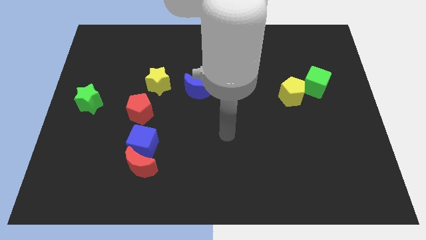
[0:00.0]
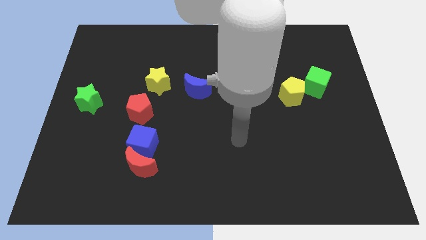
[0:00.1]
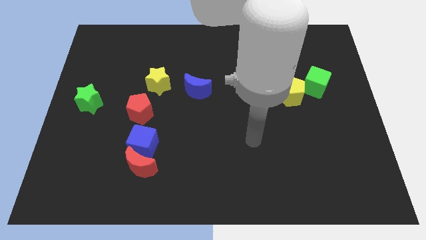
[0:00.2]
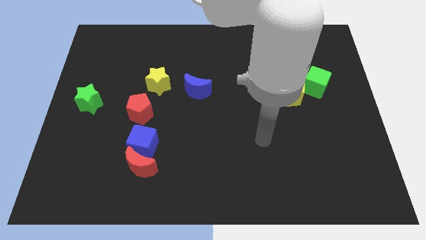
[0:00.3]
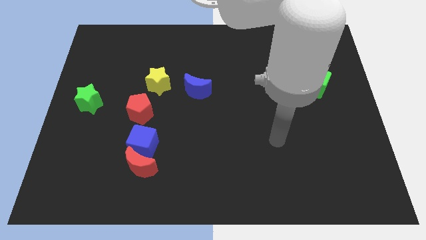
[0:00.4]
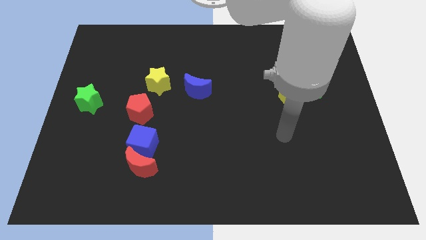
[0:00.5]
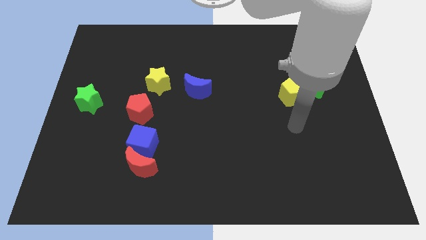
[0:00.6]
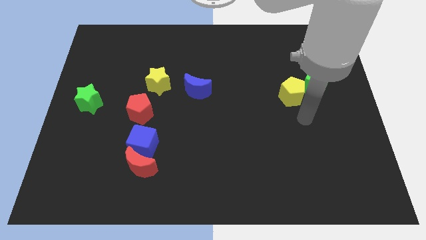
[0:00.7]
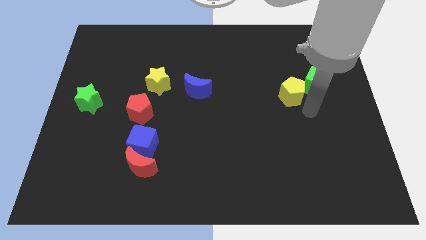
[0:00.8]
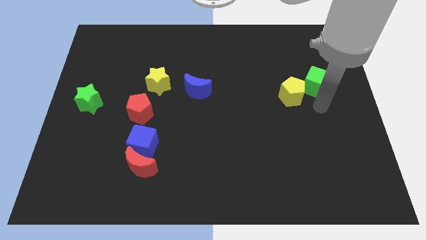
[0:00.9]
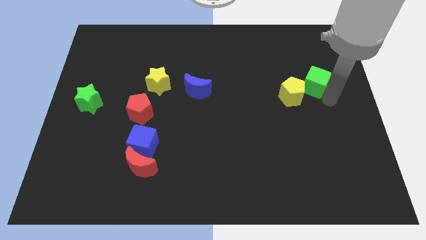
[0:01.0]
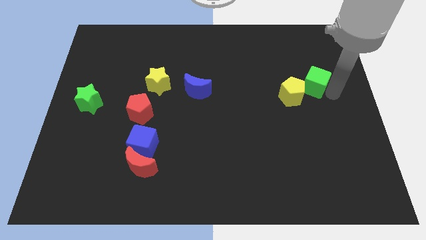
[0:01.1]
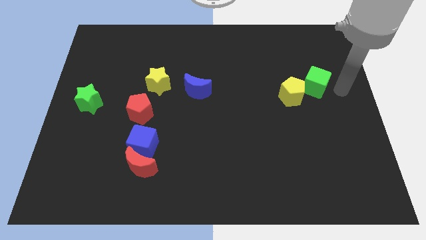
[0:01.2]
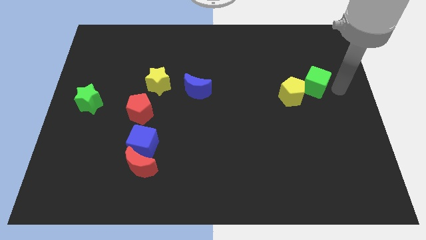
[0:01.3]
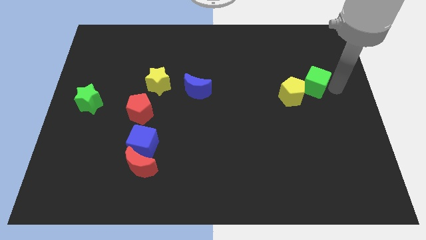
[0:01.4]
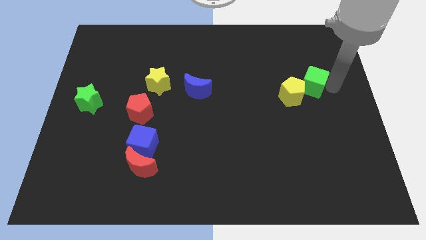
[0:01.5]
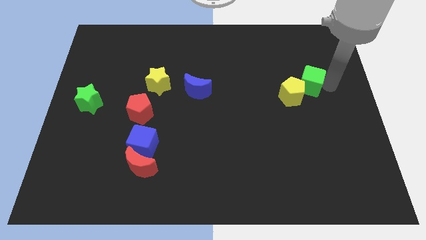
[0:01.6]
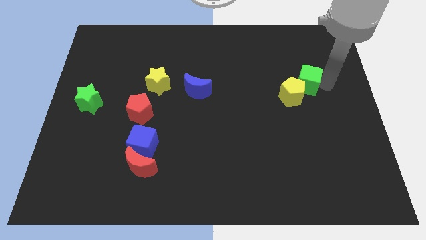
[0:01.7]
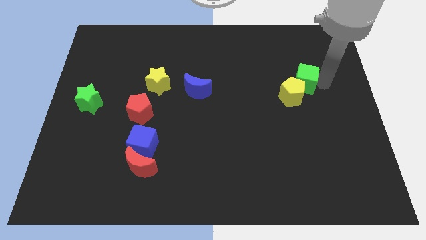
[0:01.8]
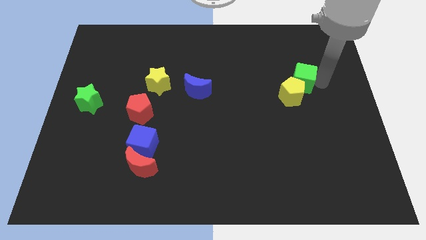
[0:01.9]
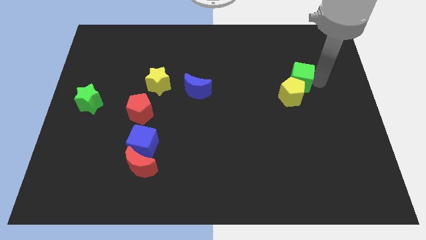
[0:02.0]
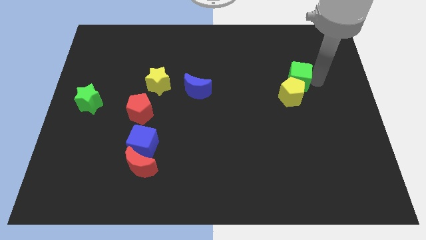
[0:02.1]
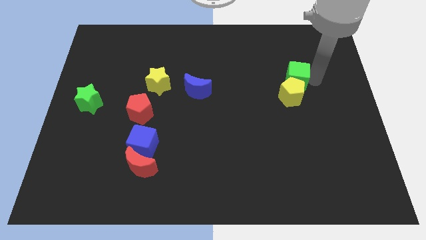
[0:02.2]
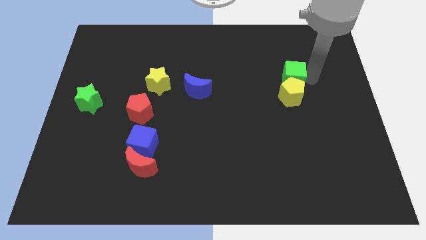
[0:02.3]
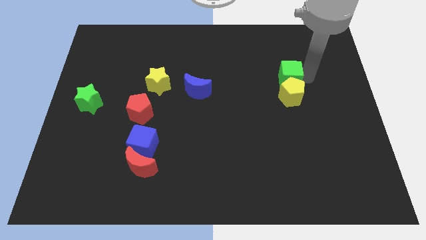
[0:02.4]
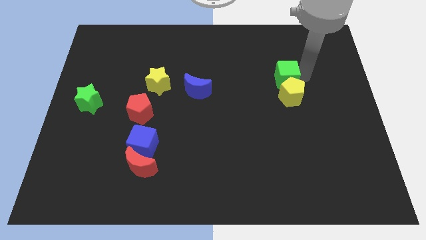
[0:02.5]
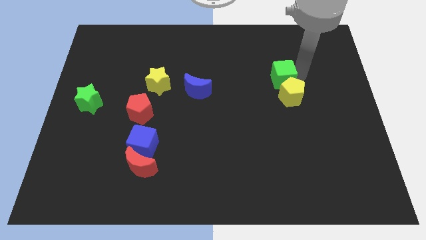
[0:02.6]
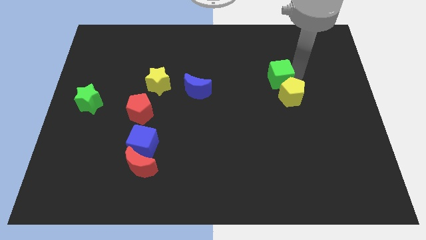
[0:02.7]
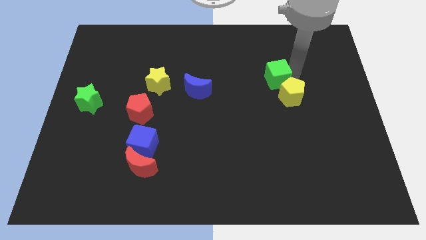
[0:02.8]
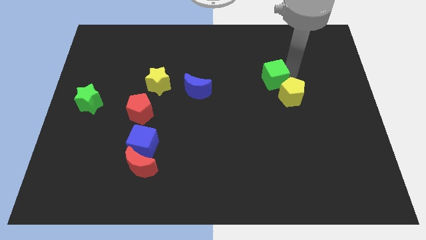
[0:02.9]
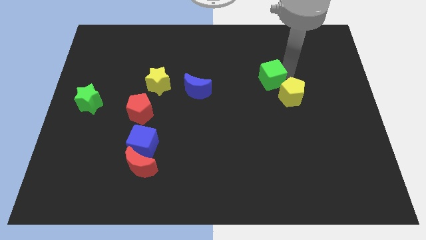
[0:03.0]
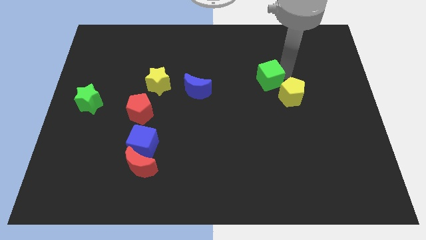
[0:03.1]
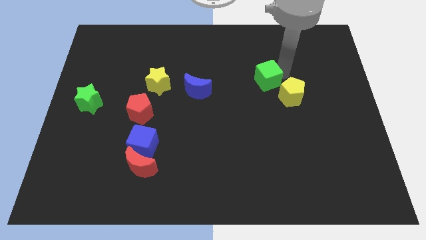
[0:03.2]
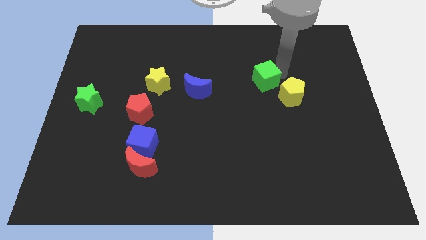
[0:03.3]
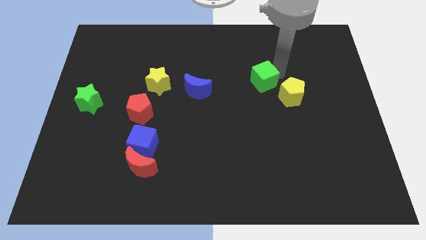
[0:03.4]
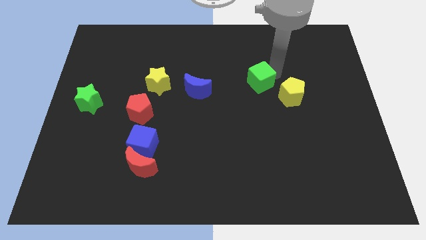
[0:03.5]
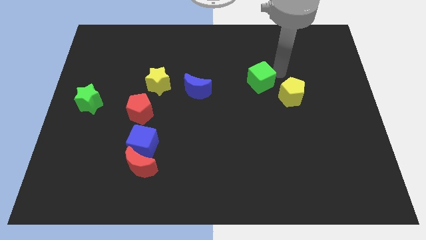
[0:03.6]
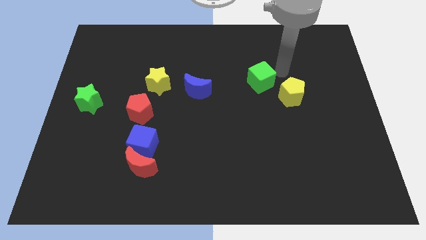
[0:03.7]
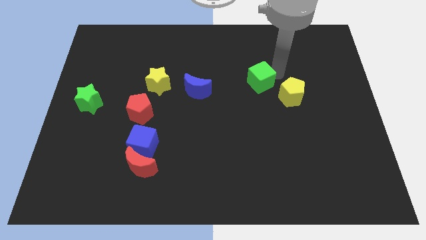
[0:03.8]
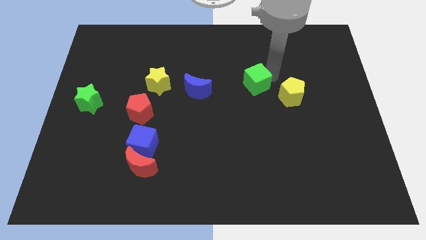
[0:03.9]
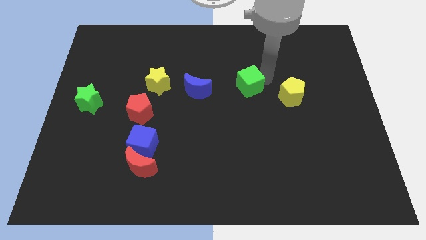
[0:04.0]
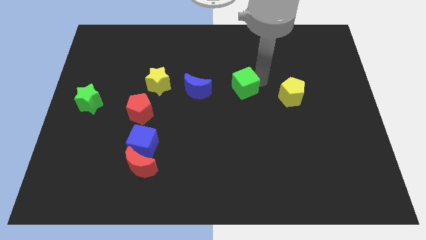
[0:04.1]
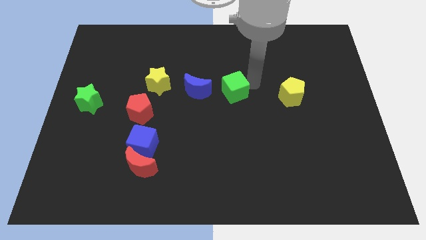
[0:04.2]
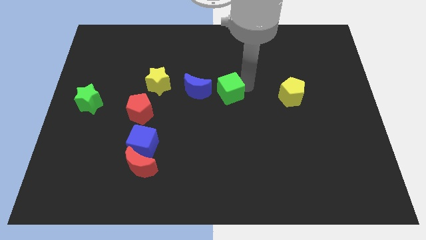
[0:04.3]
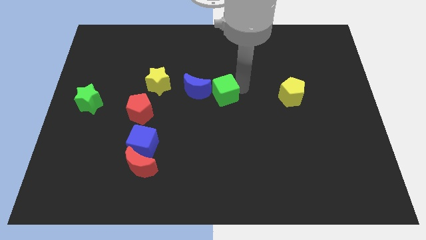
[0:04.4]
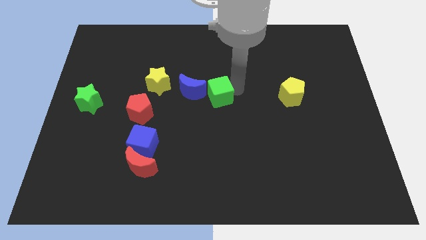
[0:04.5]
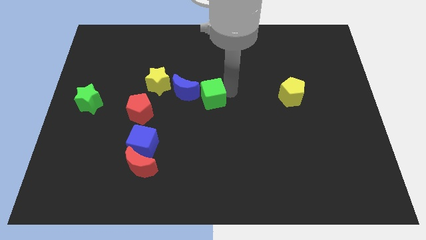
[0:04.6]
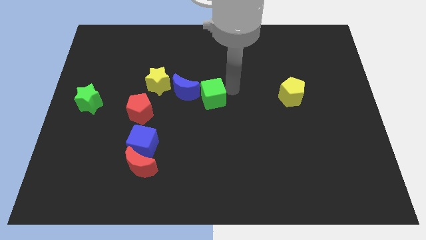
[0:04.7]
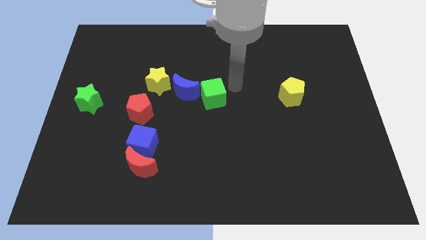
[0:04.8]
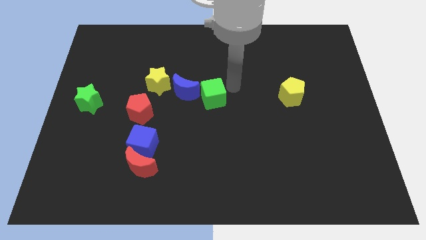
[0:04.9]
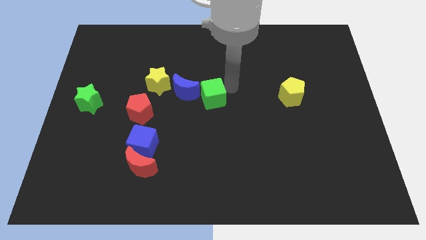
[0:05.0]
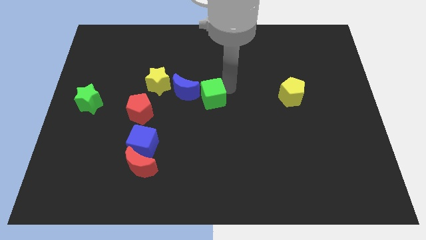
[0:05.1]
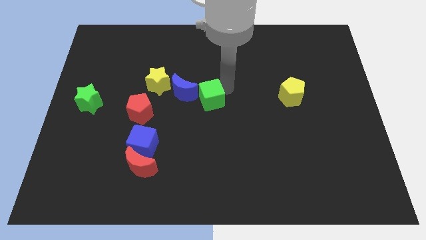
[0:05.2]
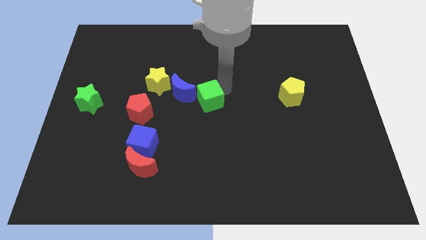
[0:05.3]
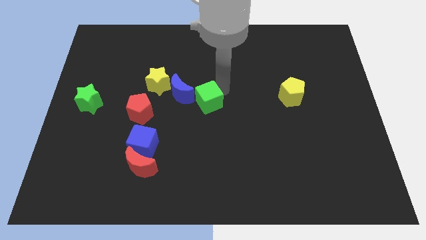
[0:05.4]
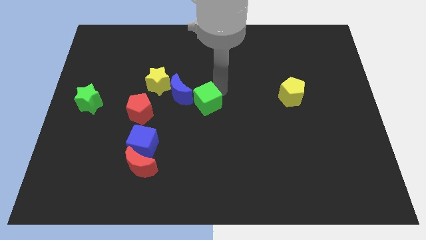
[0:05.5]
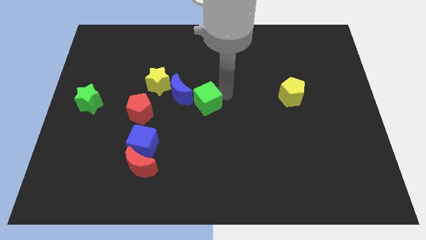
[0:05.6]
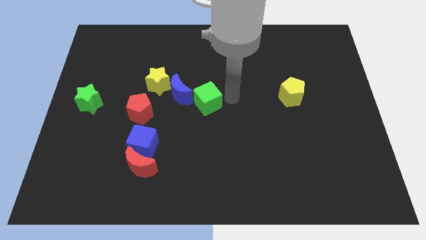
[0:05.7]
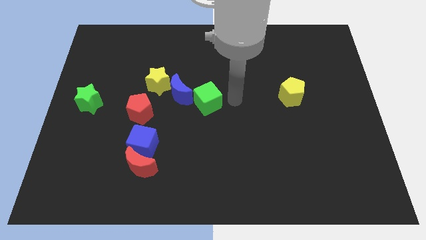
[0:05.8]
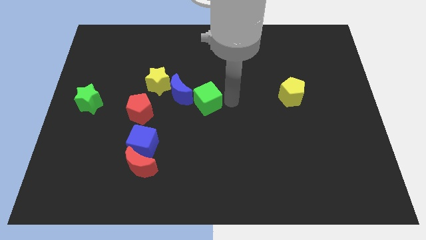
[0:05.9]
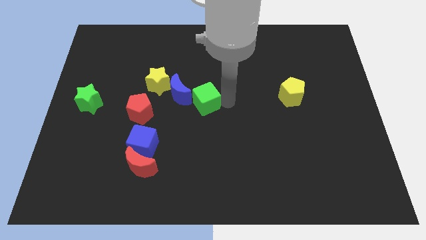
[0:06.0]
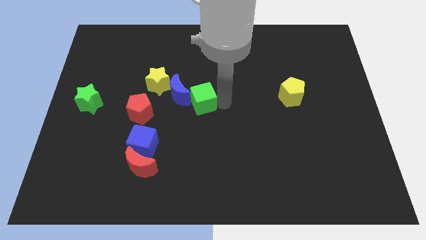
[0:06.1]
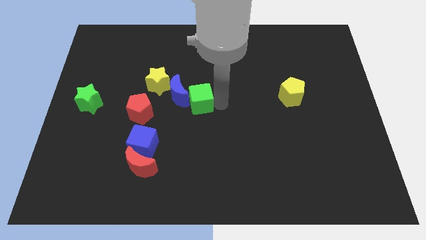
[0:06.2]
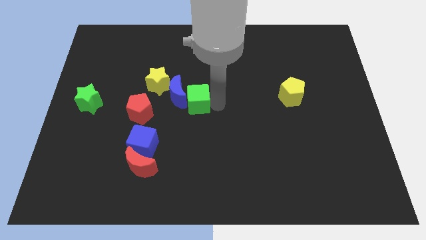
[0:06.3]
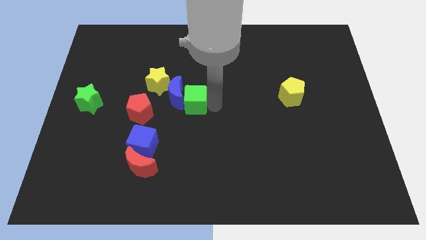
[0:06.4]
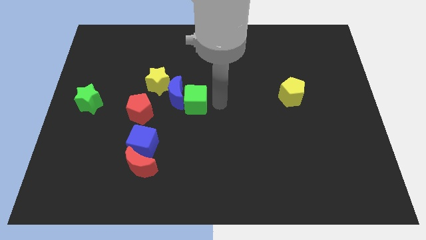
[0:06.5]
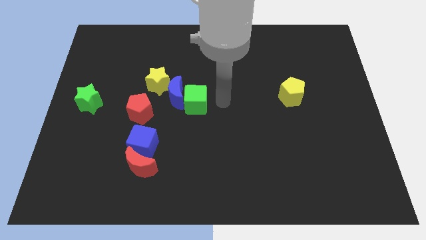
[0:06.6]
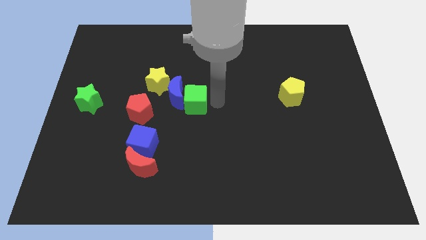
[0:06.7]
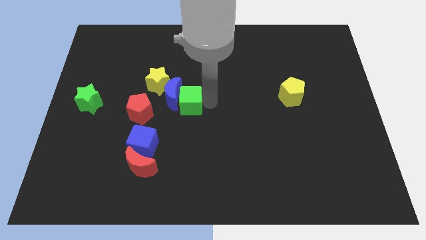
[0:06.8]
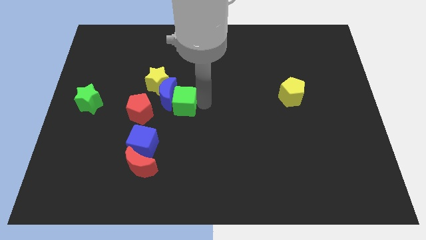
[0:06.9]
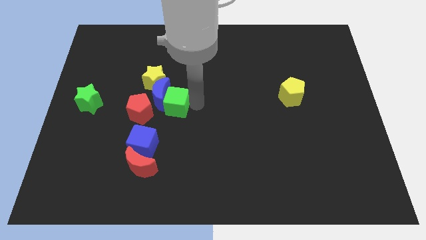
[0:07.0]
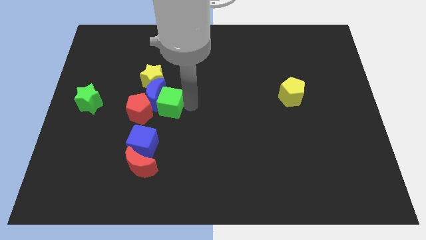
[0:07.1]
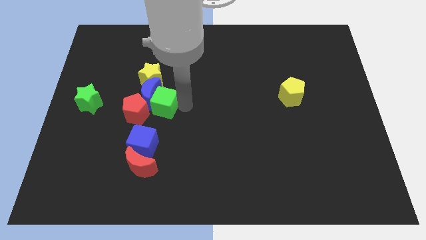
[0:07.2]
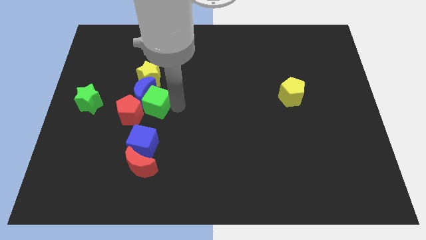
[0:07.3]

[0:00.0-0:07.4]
slide the green cube to the right side of the green star
